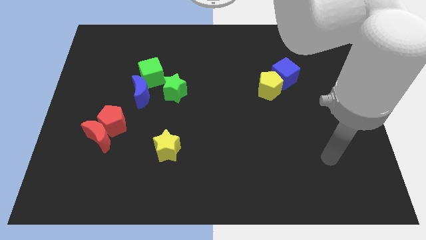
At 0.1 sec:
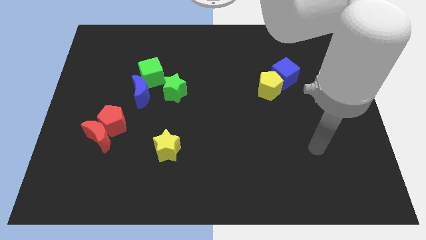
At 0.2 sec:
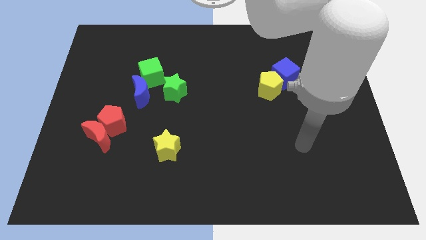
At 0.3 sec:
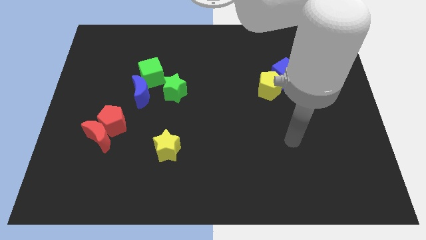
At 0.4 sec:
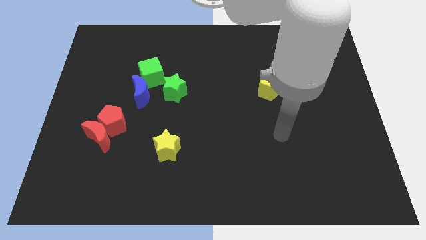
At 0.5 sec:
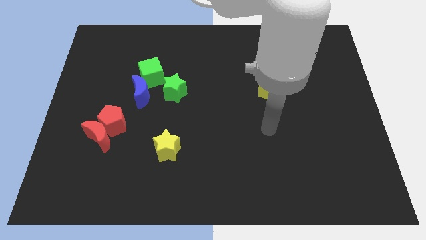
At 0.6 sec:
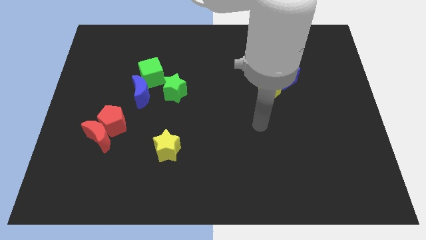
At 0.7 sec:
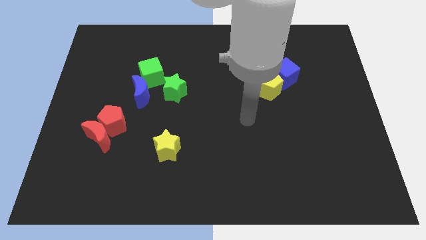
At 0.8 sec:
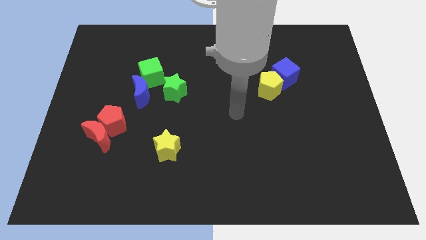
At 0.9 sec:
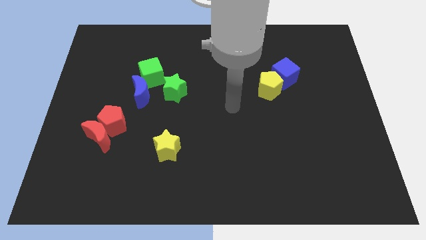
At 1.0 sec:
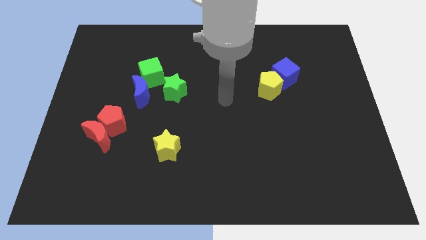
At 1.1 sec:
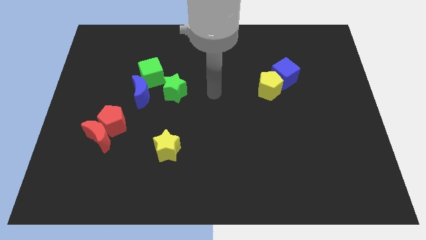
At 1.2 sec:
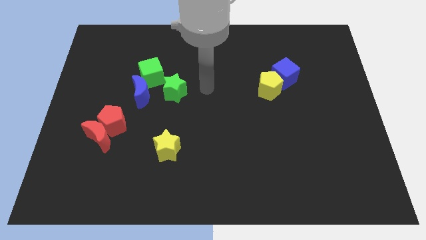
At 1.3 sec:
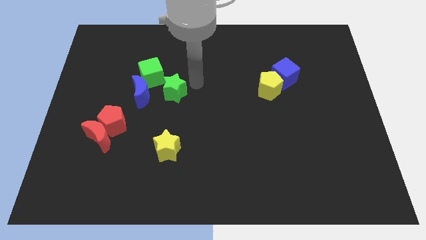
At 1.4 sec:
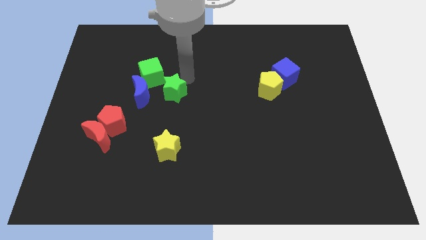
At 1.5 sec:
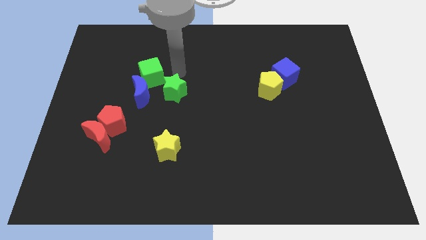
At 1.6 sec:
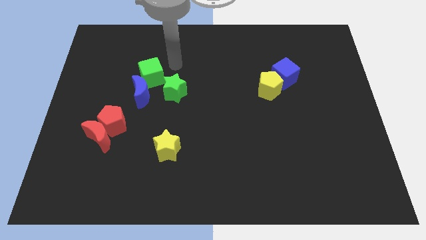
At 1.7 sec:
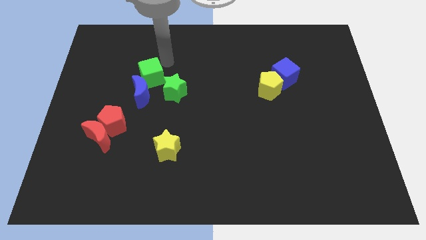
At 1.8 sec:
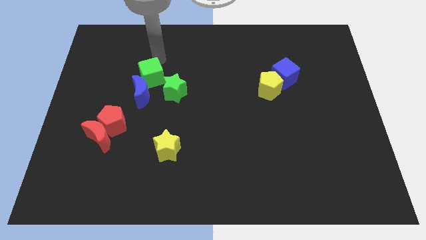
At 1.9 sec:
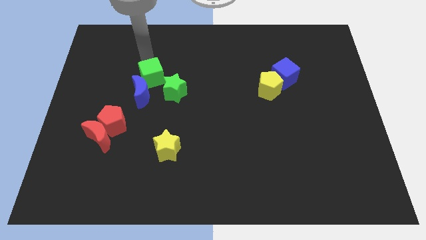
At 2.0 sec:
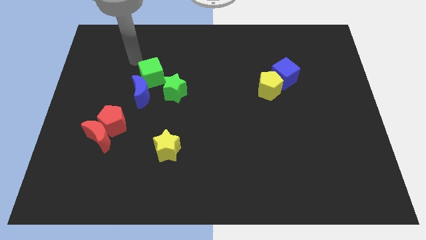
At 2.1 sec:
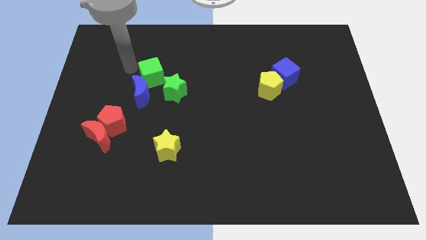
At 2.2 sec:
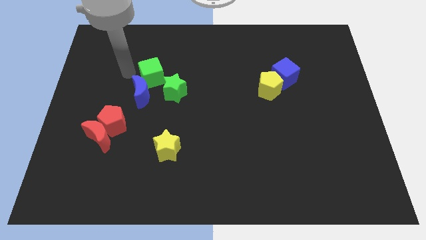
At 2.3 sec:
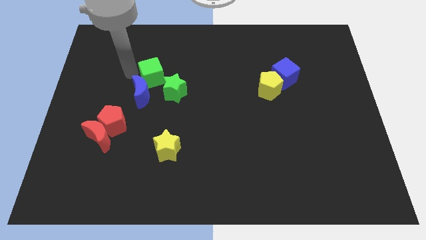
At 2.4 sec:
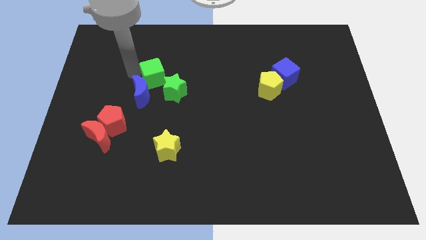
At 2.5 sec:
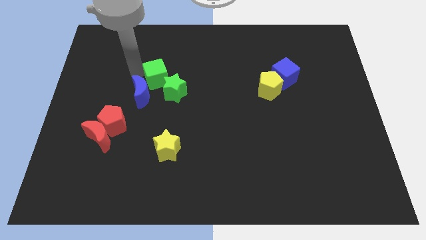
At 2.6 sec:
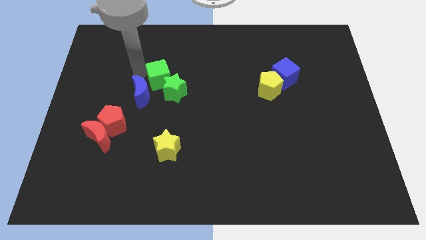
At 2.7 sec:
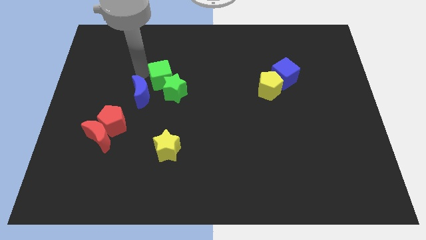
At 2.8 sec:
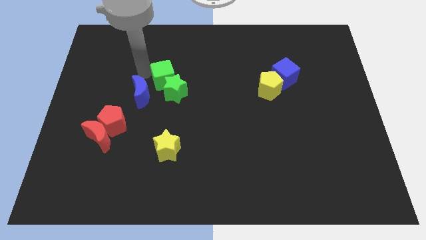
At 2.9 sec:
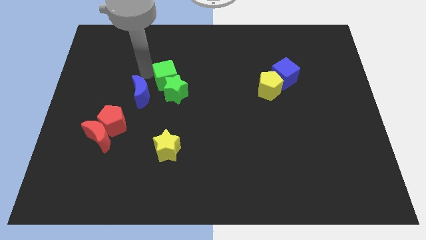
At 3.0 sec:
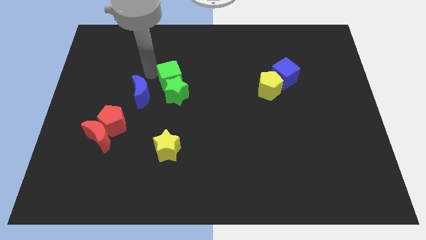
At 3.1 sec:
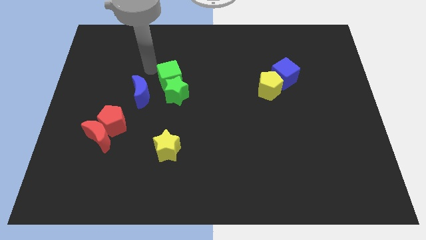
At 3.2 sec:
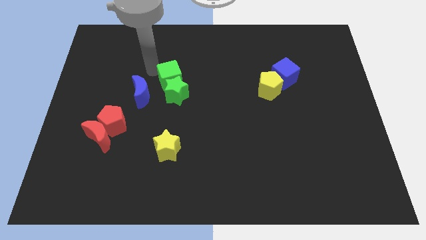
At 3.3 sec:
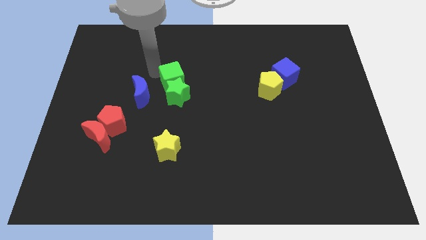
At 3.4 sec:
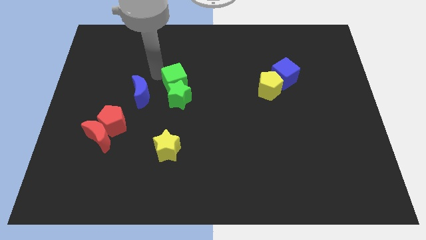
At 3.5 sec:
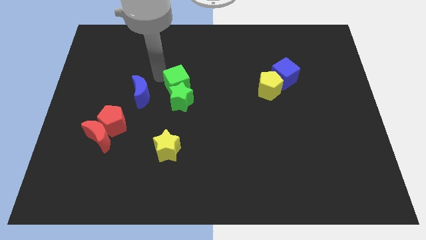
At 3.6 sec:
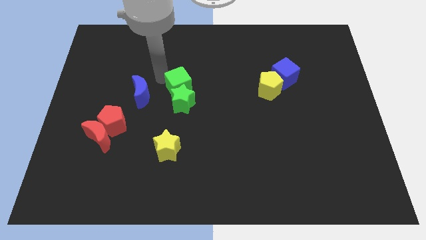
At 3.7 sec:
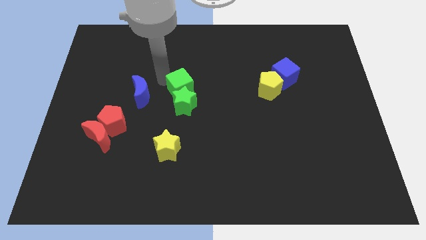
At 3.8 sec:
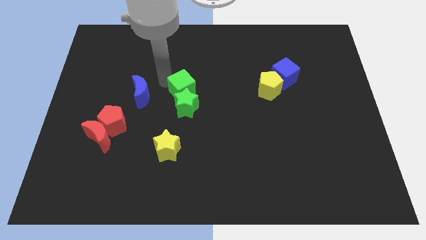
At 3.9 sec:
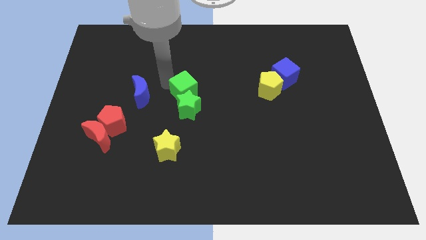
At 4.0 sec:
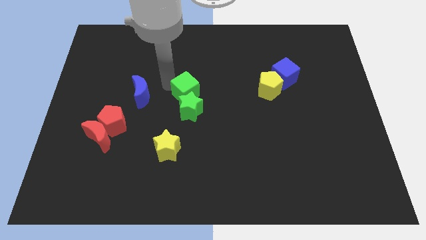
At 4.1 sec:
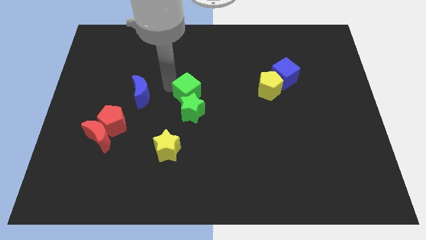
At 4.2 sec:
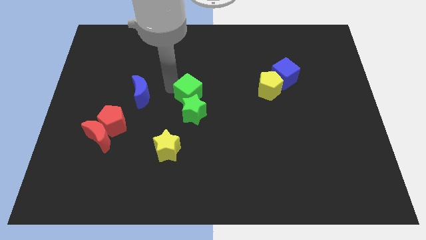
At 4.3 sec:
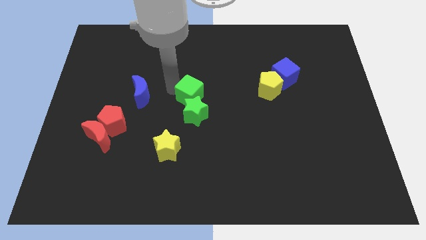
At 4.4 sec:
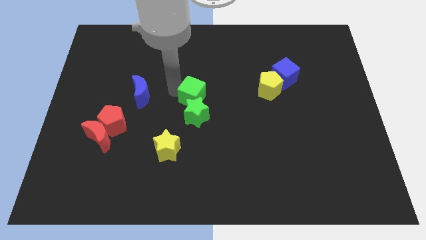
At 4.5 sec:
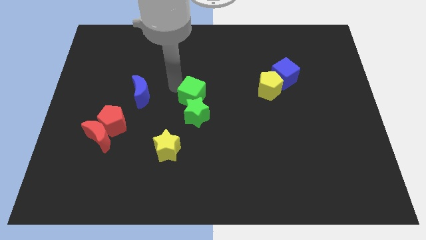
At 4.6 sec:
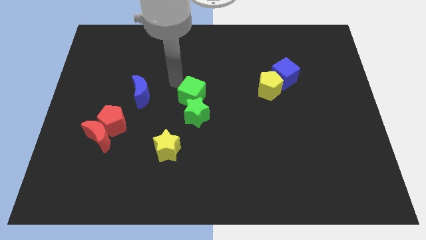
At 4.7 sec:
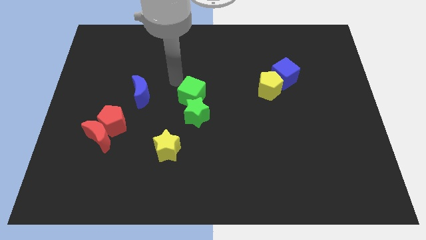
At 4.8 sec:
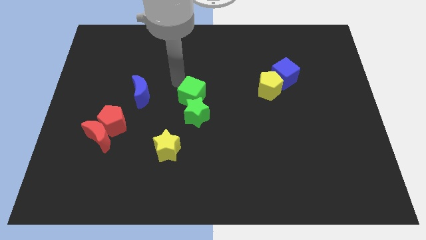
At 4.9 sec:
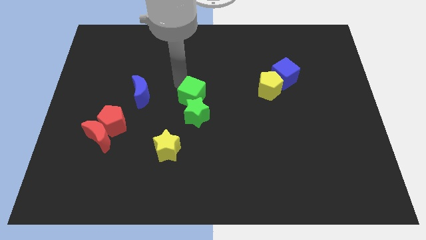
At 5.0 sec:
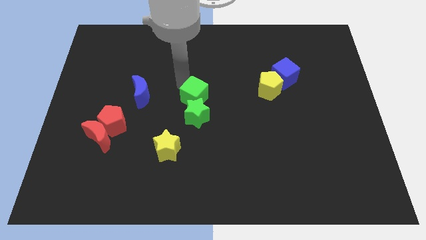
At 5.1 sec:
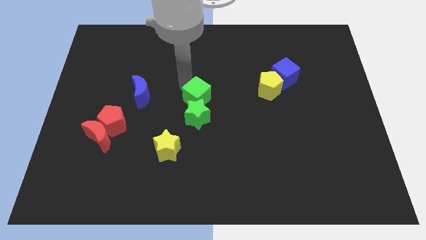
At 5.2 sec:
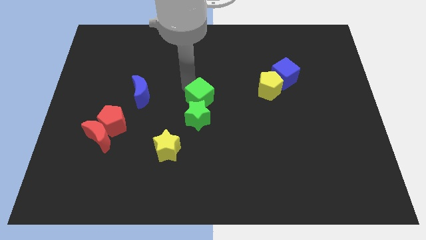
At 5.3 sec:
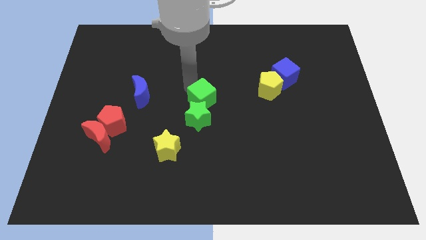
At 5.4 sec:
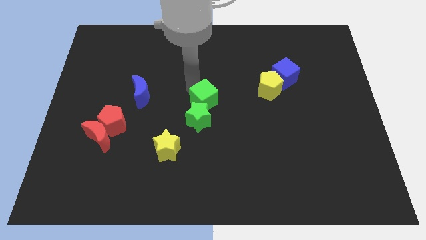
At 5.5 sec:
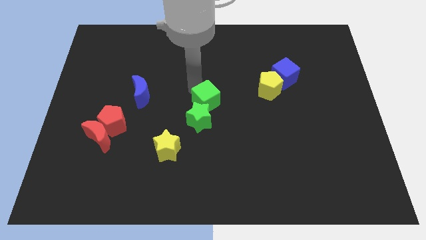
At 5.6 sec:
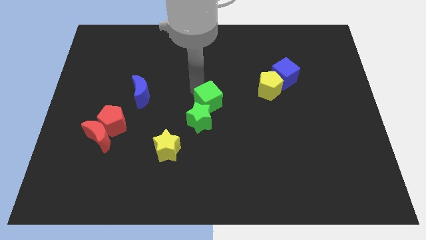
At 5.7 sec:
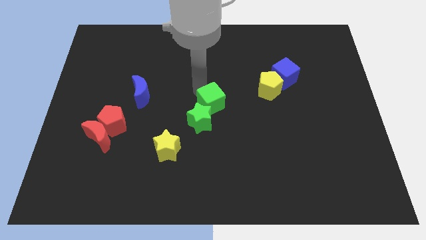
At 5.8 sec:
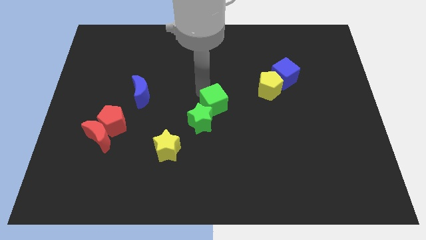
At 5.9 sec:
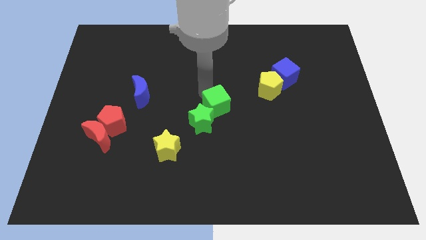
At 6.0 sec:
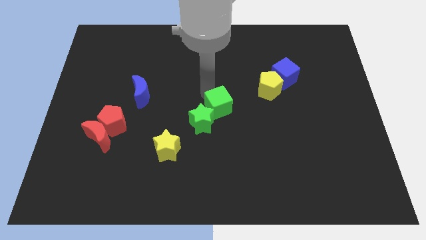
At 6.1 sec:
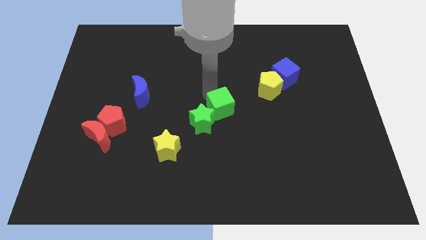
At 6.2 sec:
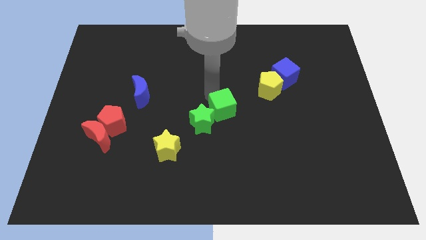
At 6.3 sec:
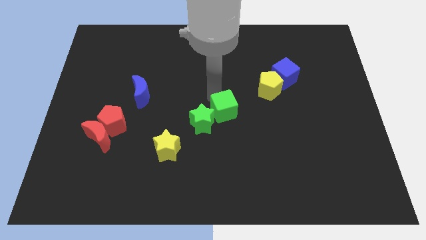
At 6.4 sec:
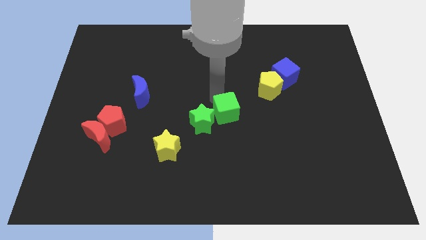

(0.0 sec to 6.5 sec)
slide the green cube downwards and to the right diagonally

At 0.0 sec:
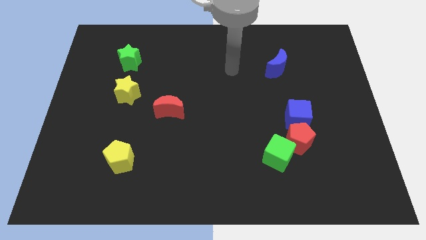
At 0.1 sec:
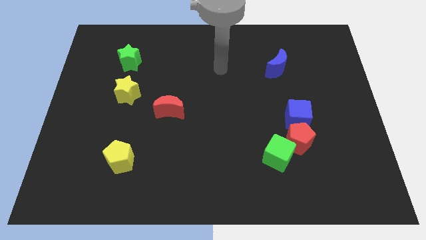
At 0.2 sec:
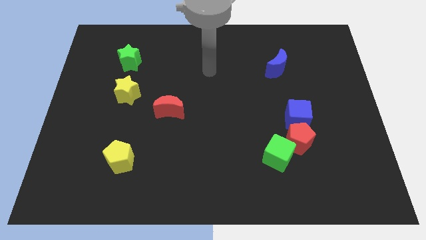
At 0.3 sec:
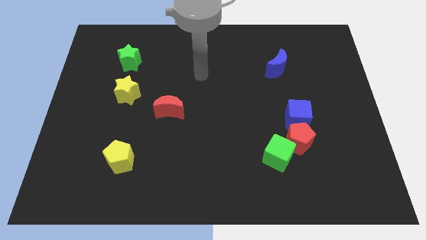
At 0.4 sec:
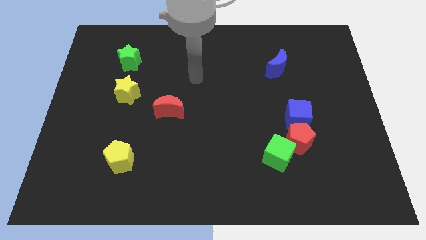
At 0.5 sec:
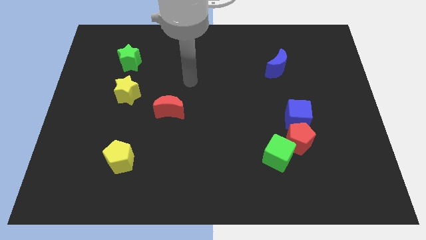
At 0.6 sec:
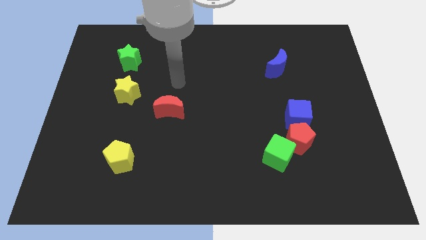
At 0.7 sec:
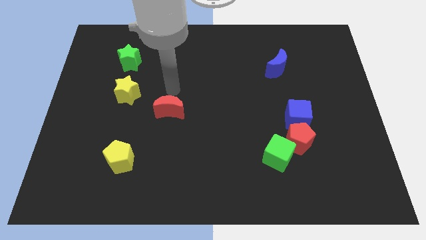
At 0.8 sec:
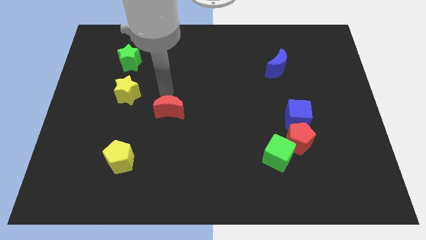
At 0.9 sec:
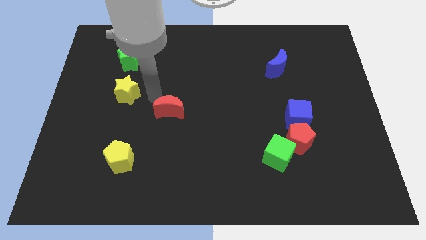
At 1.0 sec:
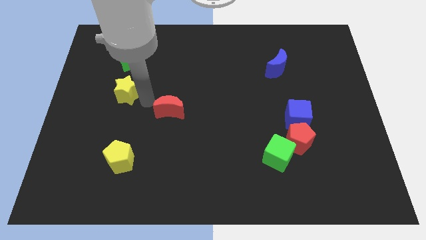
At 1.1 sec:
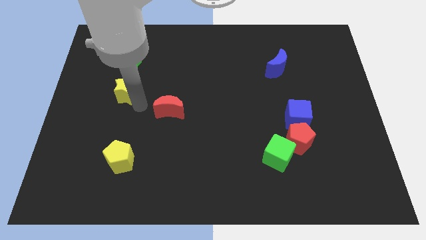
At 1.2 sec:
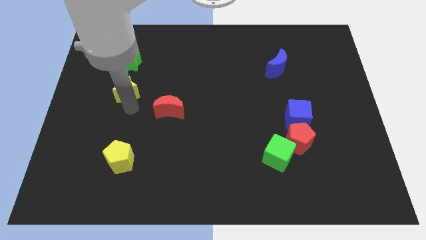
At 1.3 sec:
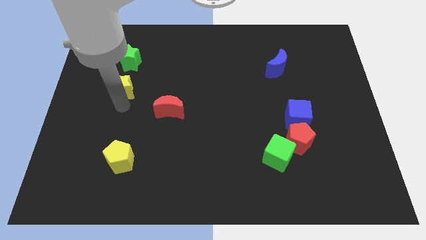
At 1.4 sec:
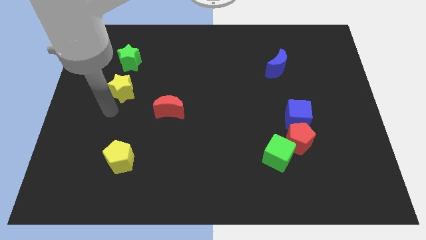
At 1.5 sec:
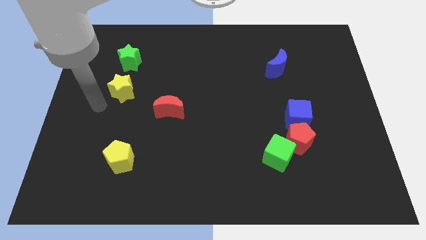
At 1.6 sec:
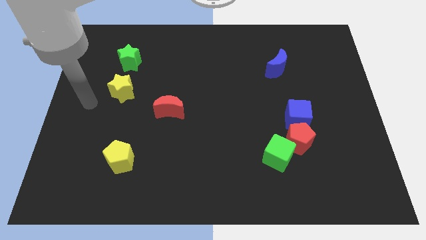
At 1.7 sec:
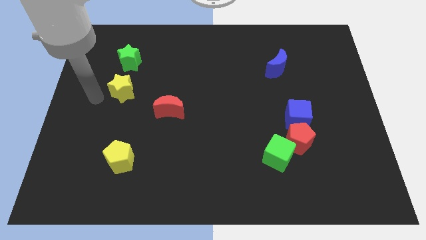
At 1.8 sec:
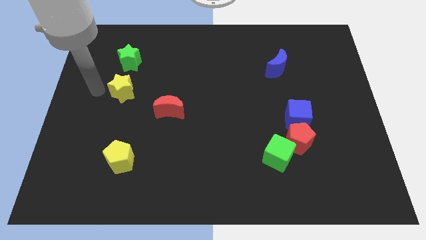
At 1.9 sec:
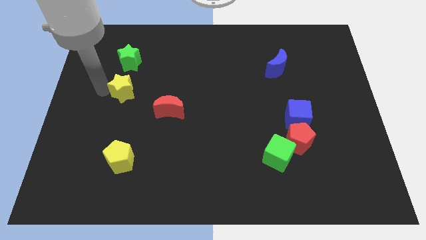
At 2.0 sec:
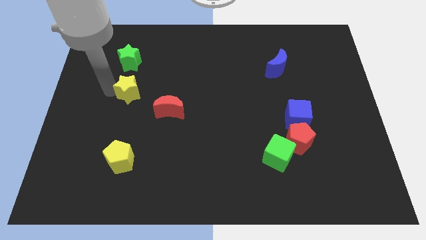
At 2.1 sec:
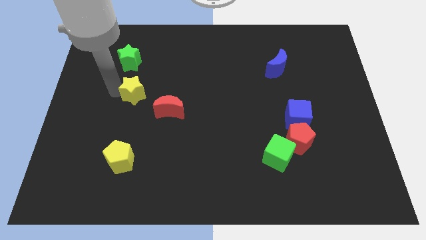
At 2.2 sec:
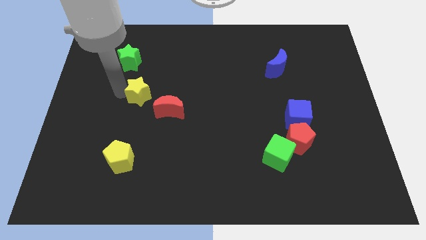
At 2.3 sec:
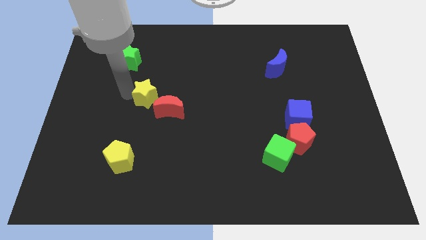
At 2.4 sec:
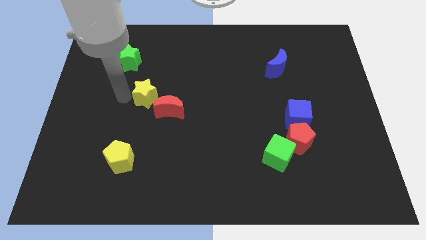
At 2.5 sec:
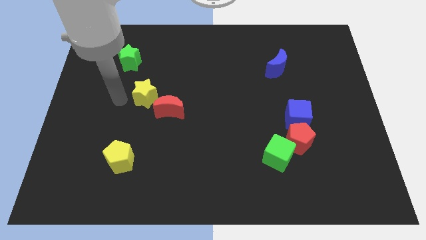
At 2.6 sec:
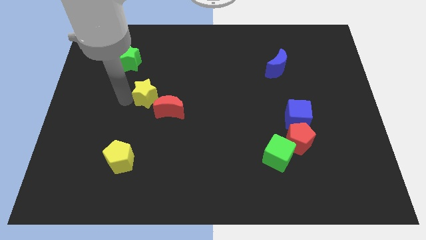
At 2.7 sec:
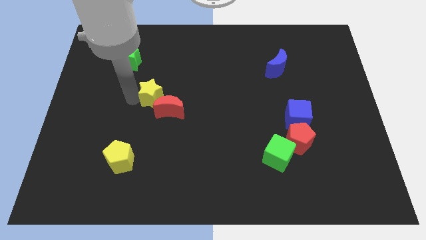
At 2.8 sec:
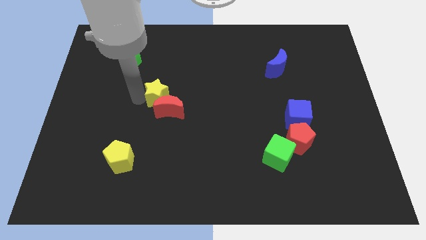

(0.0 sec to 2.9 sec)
push the yellow star somewhat right
